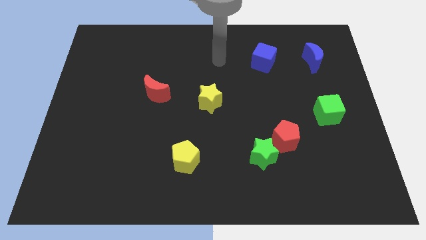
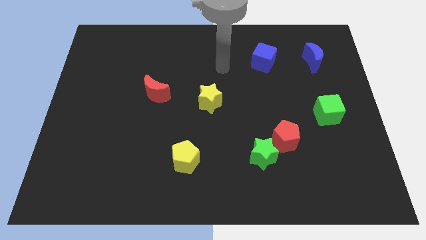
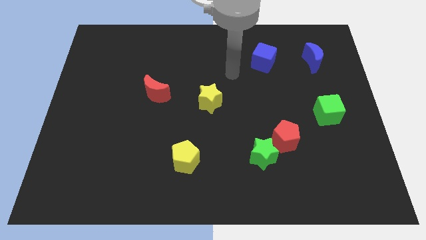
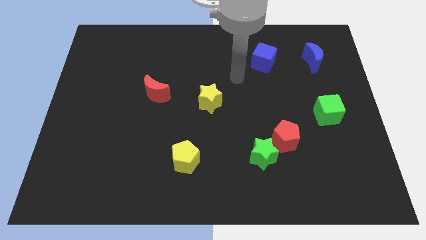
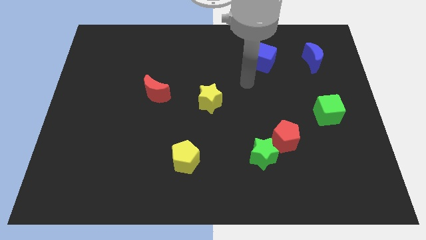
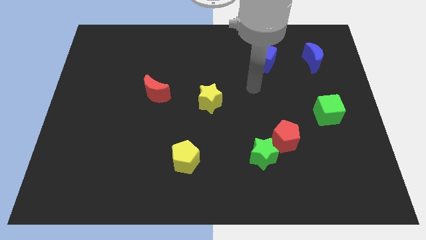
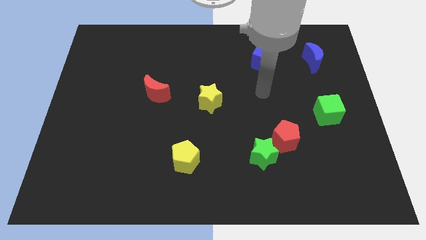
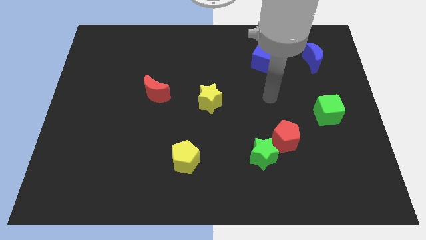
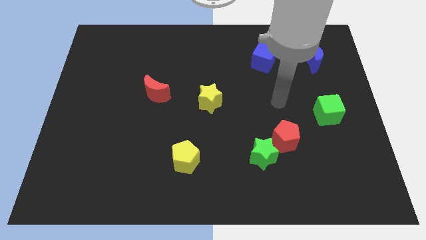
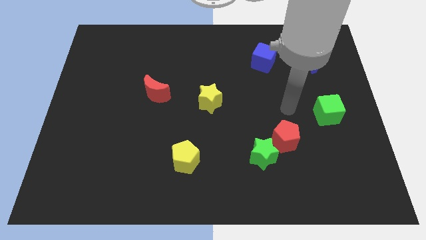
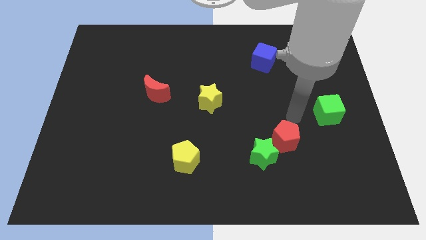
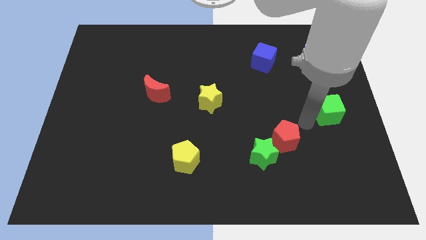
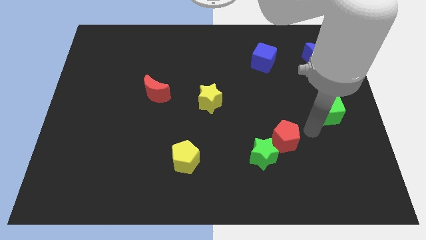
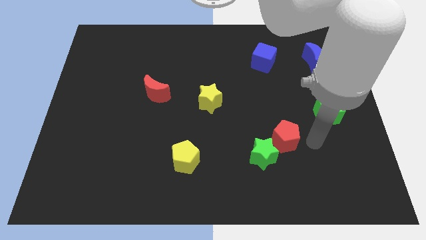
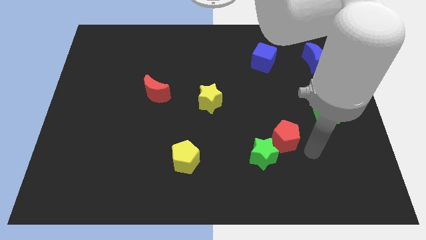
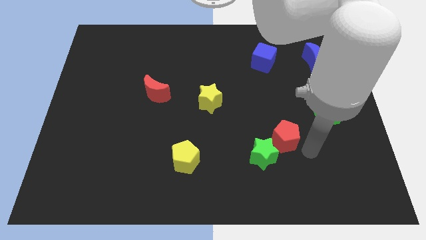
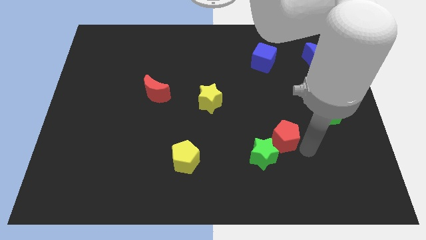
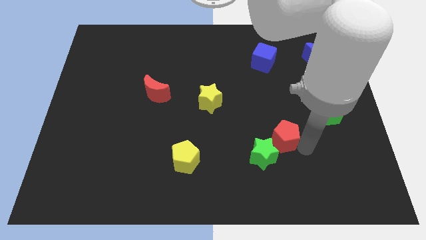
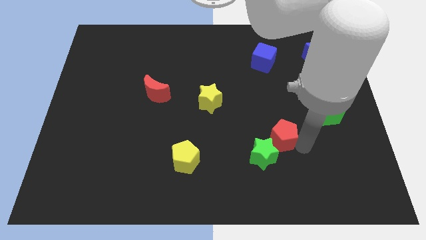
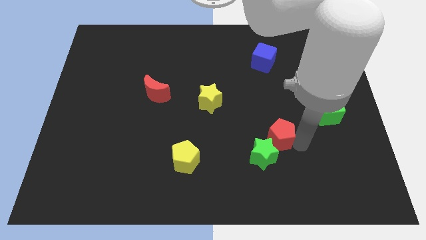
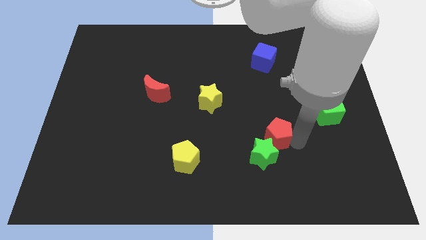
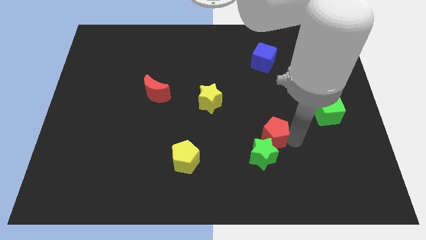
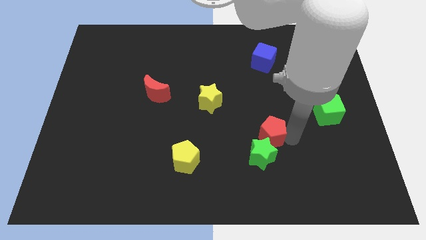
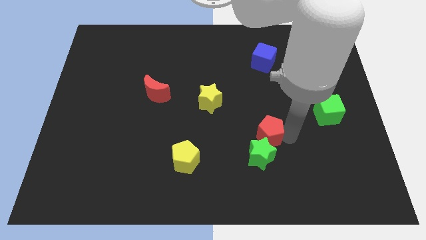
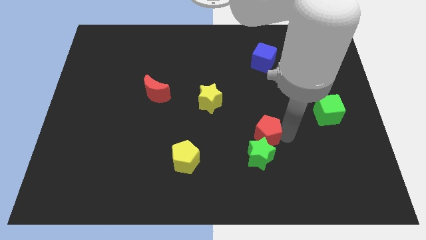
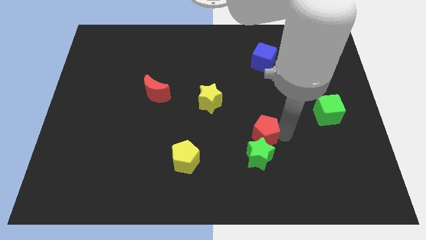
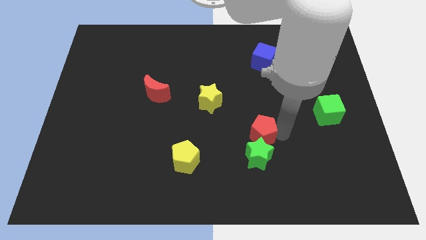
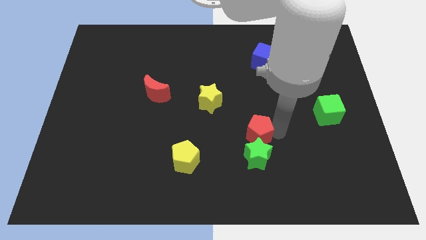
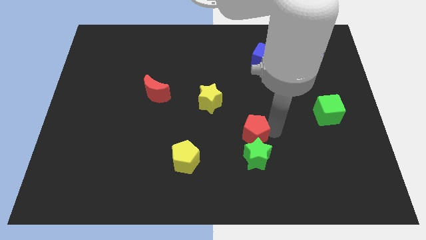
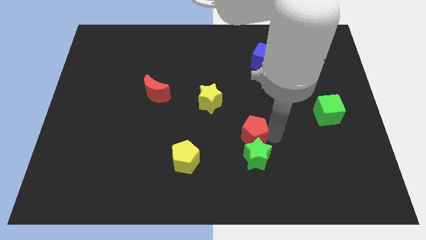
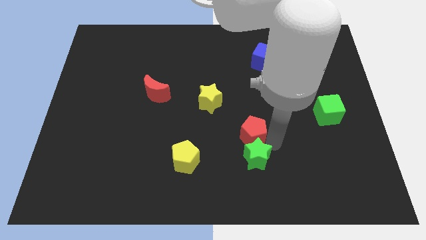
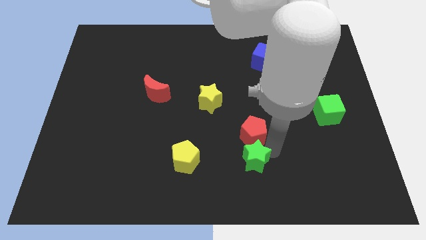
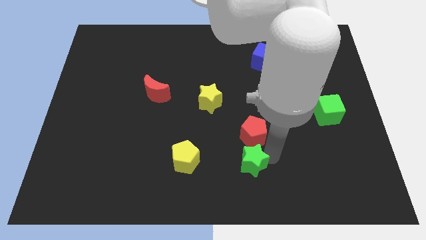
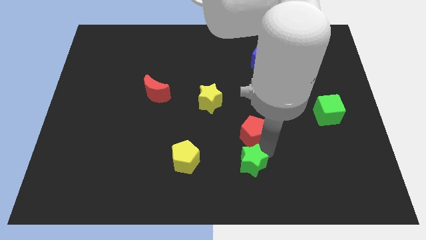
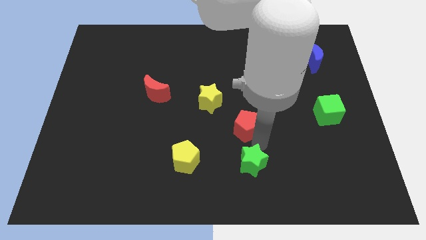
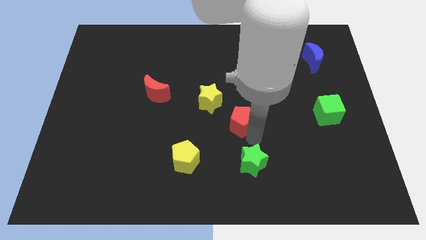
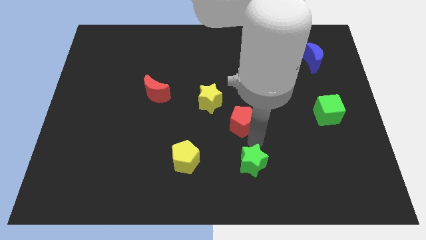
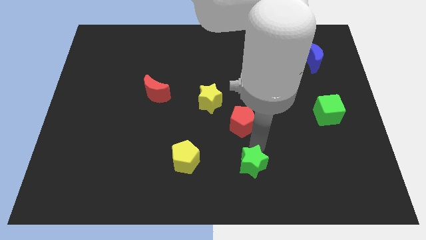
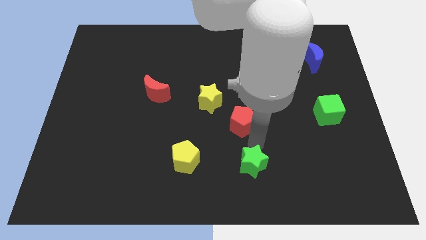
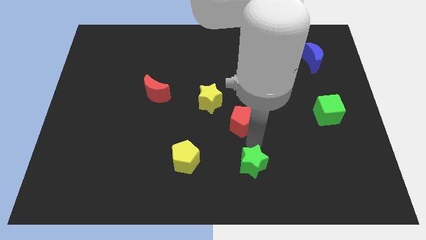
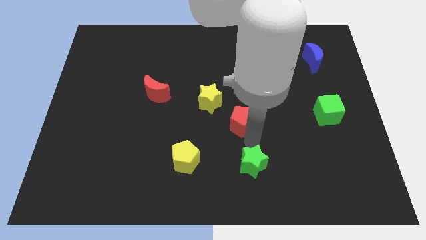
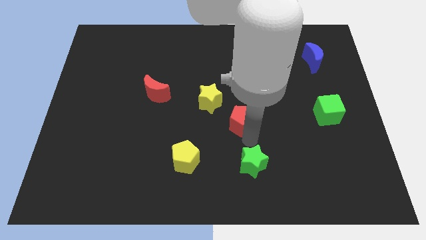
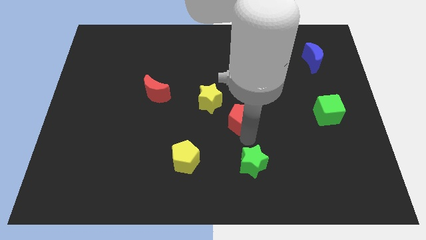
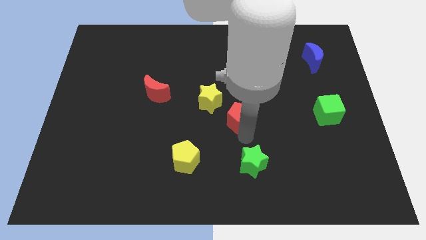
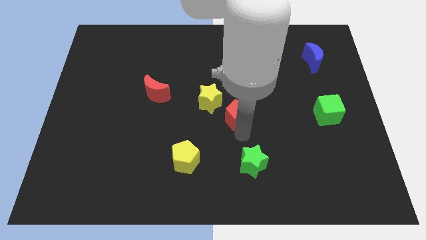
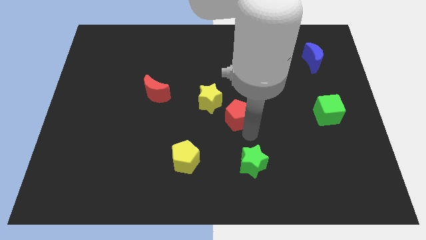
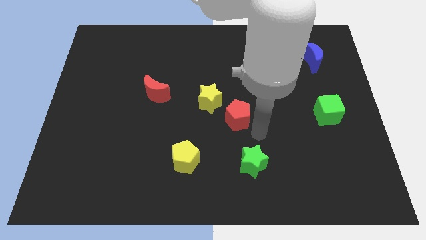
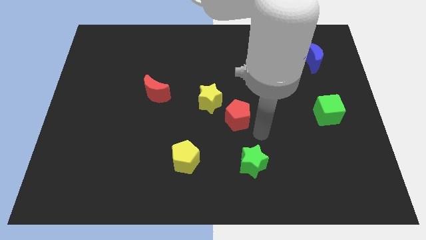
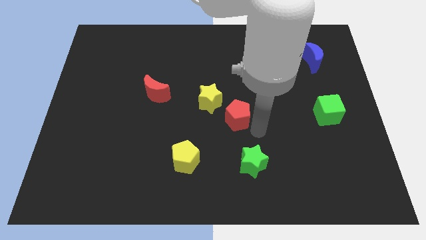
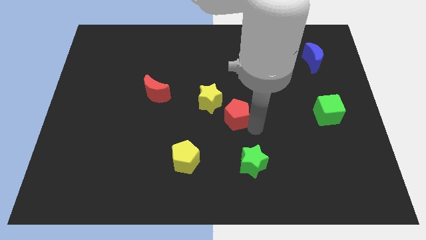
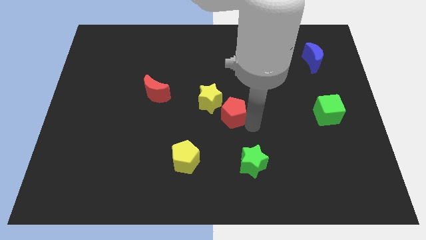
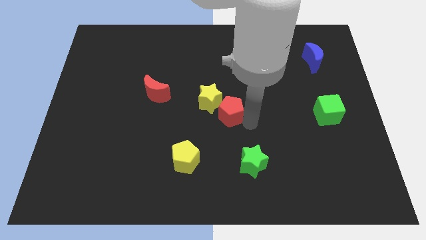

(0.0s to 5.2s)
put the red pentagon towards the yellow star

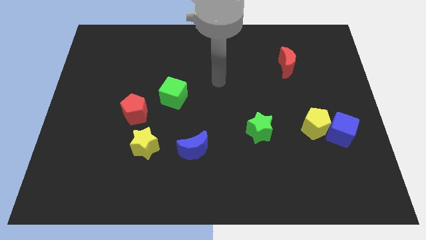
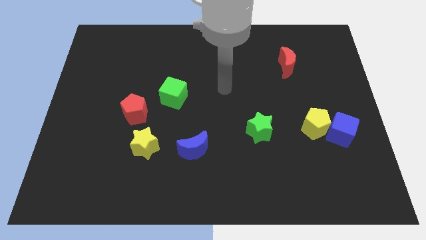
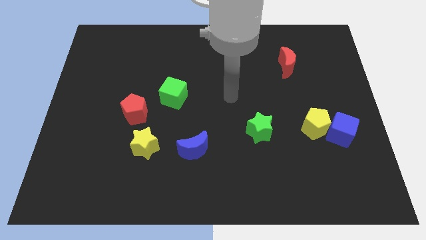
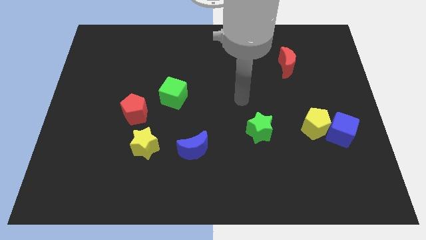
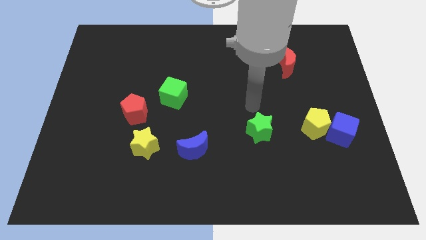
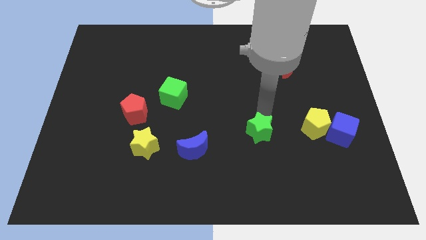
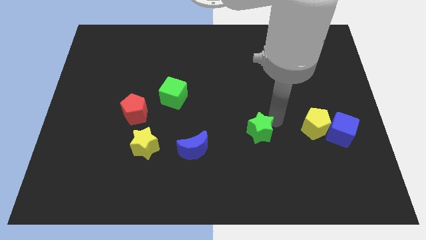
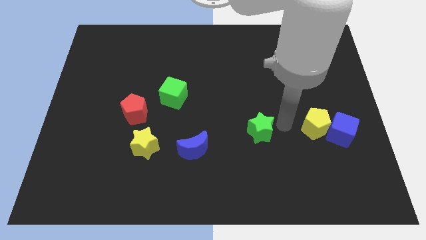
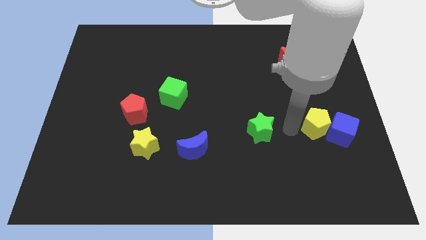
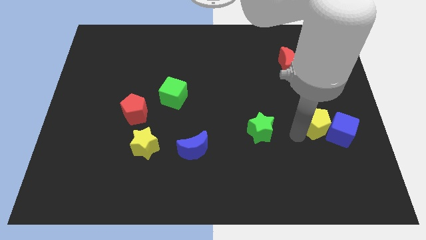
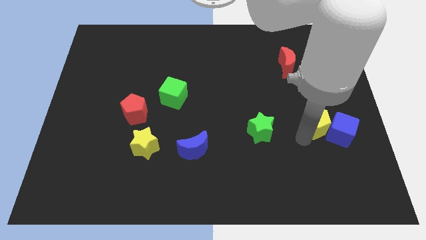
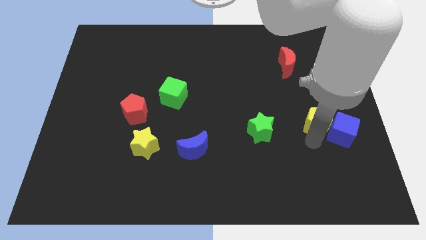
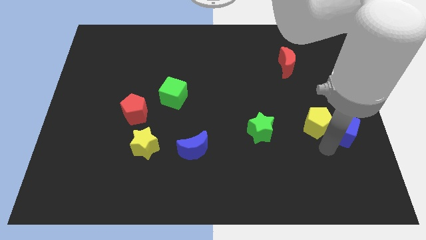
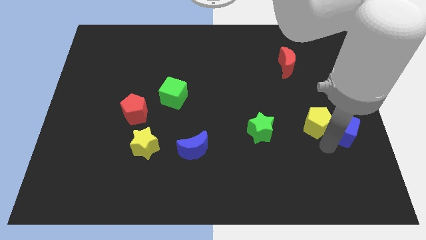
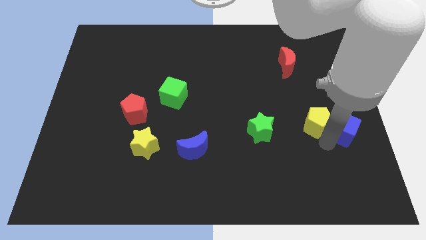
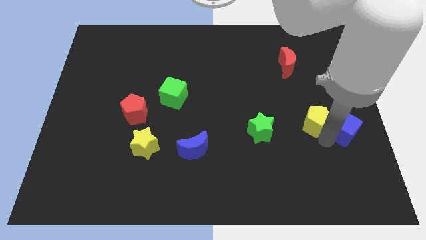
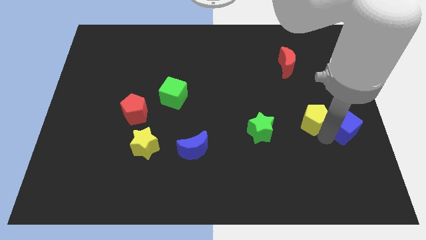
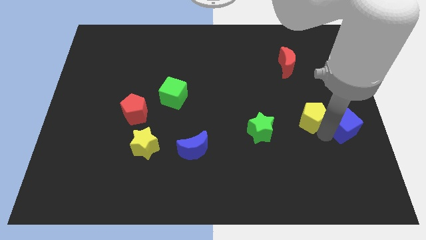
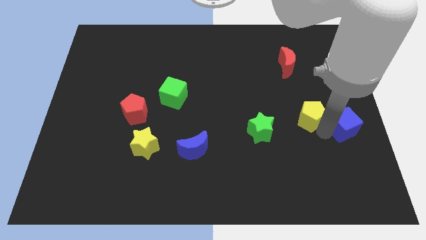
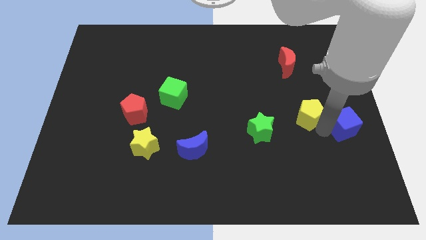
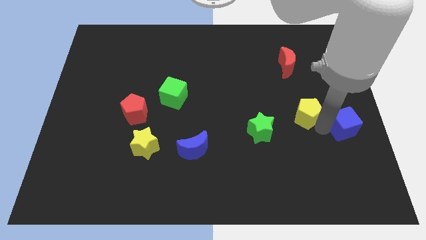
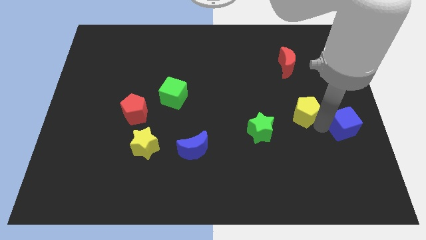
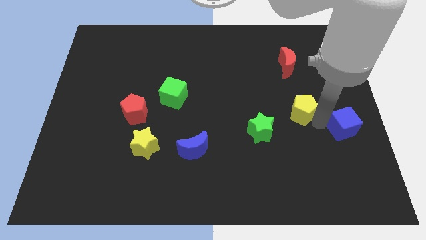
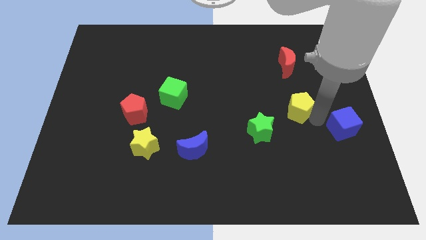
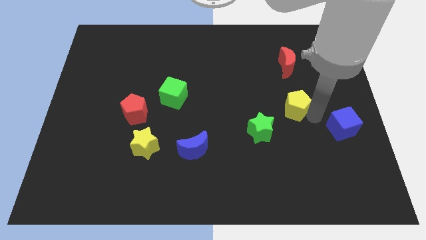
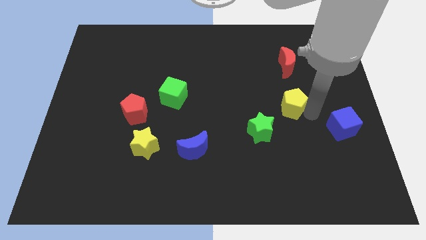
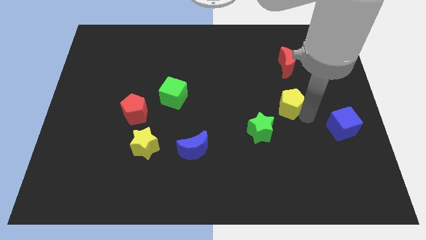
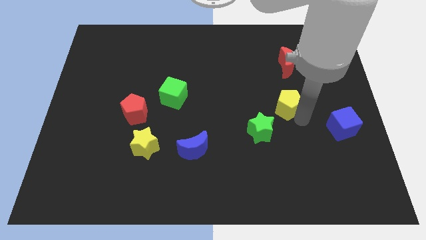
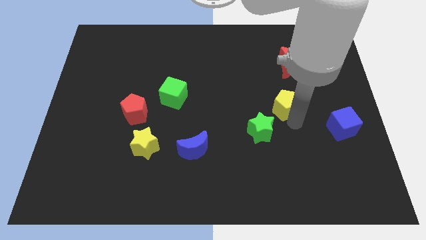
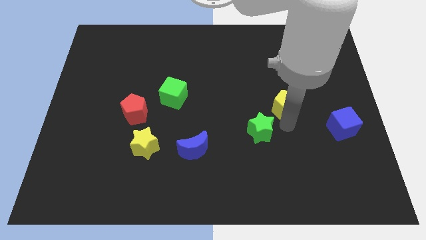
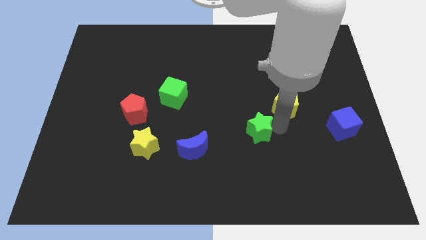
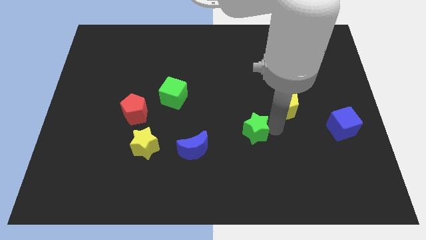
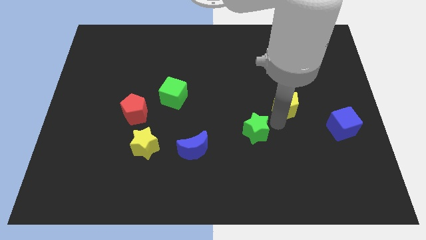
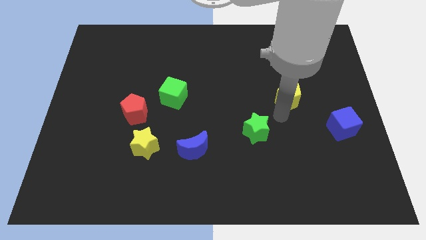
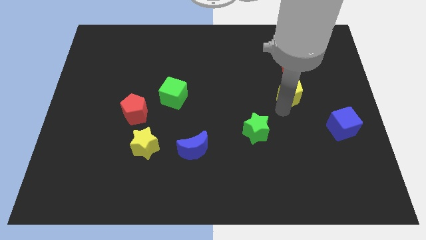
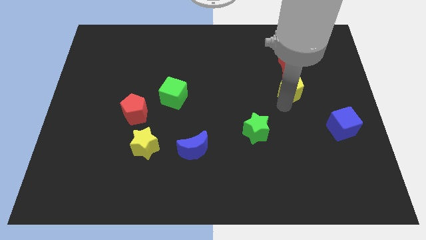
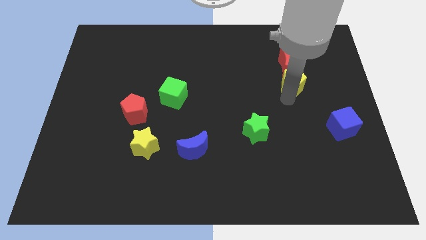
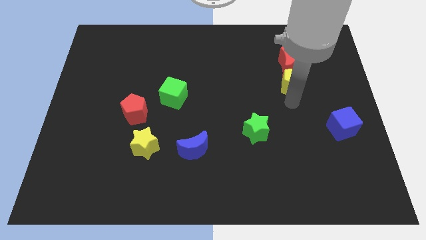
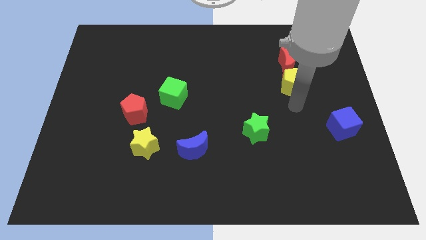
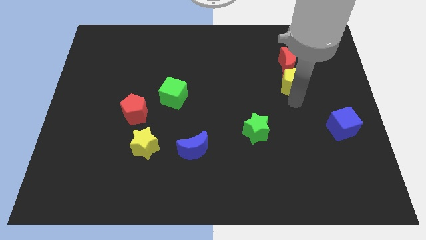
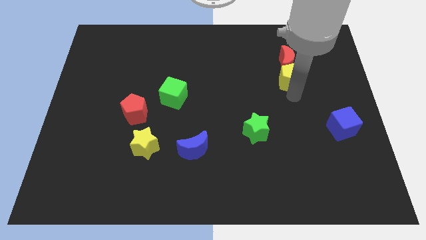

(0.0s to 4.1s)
slide the yellow pentagon next to the red moon
